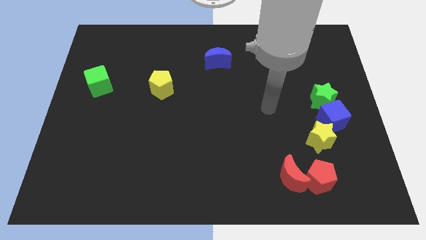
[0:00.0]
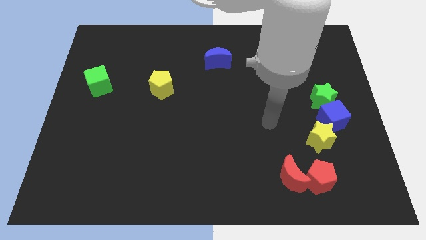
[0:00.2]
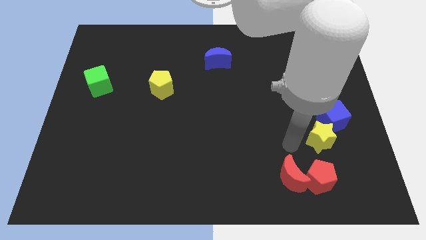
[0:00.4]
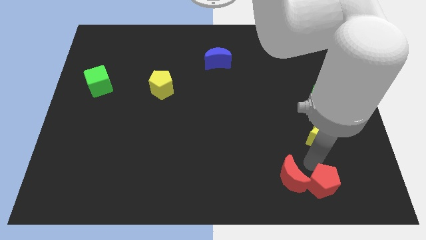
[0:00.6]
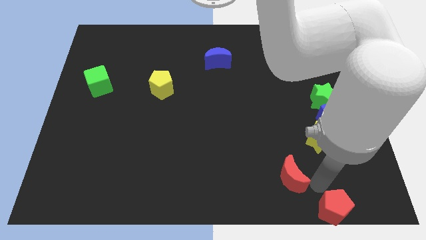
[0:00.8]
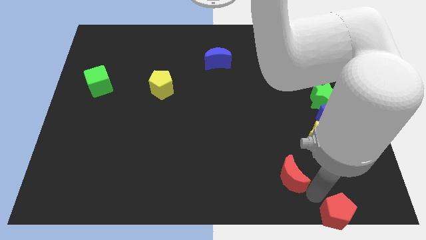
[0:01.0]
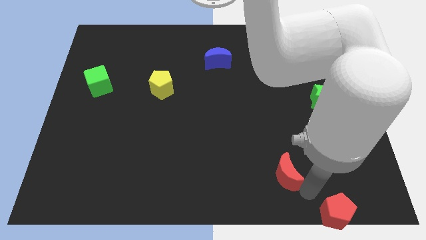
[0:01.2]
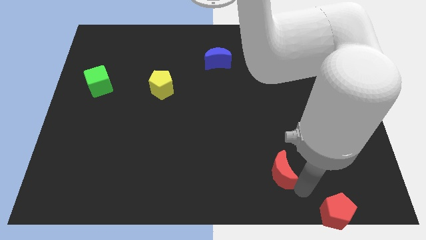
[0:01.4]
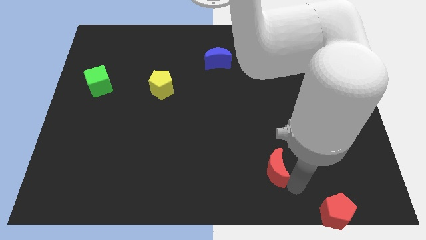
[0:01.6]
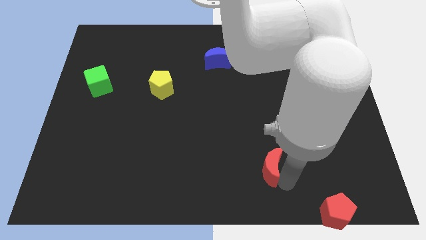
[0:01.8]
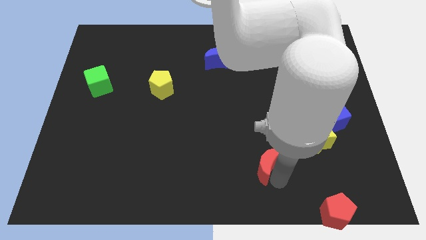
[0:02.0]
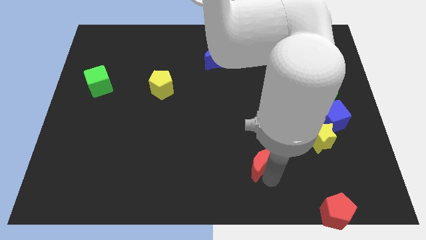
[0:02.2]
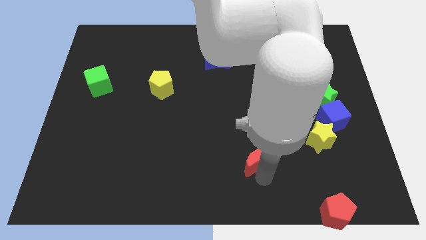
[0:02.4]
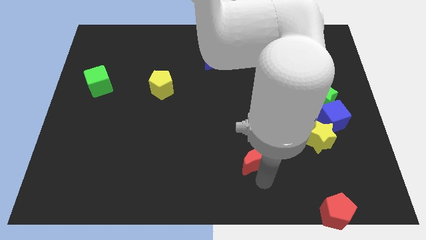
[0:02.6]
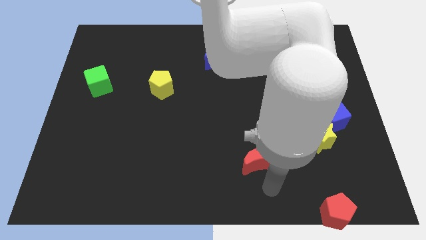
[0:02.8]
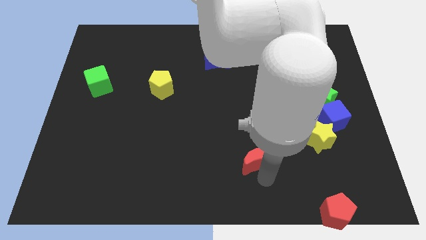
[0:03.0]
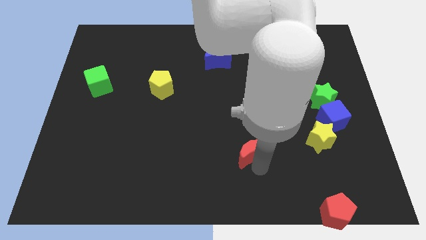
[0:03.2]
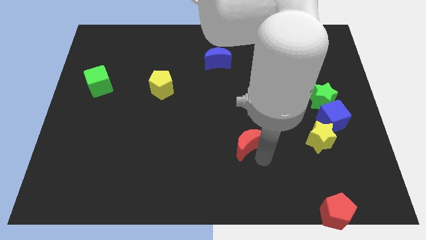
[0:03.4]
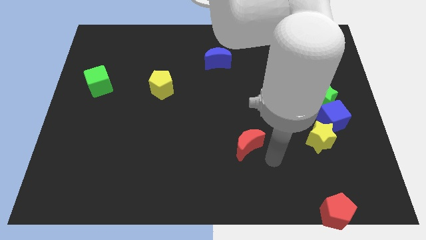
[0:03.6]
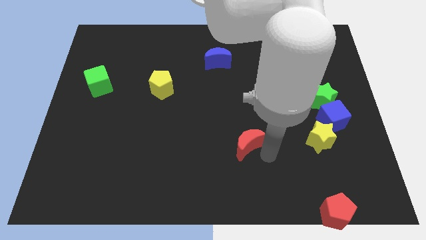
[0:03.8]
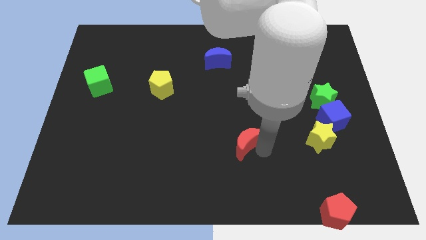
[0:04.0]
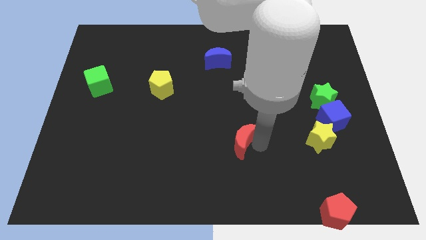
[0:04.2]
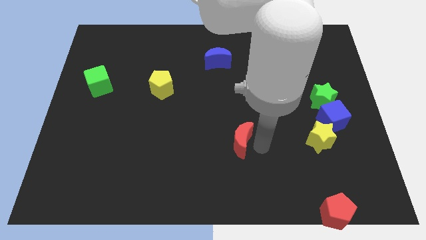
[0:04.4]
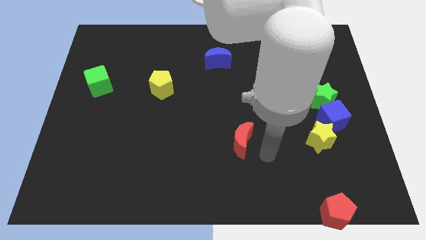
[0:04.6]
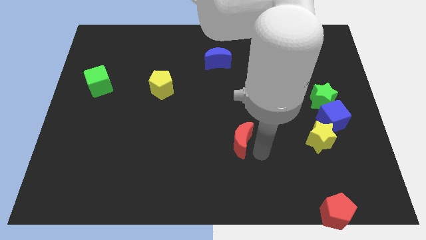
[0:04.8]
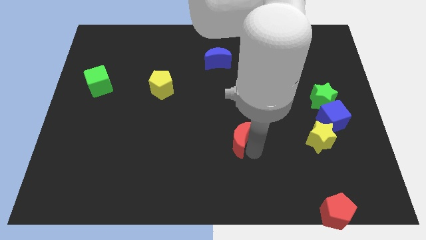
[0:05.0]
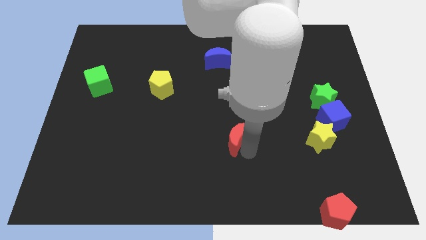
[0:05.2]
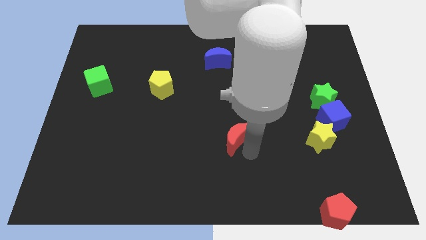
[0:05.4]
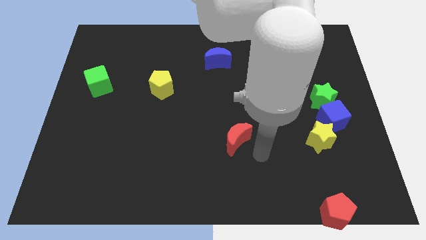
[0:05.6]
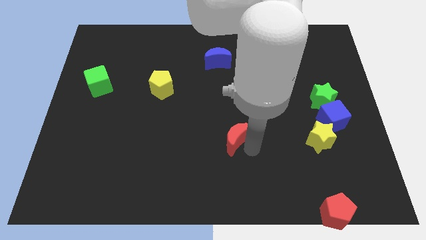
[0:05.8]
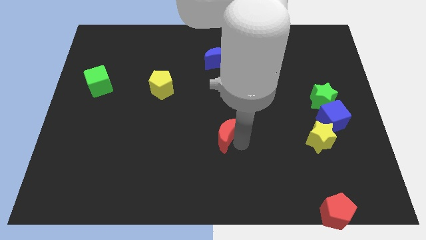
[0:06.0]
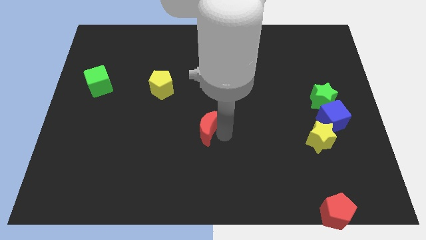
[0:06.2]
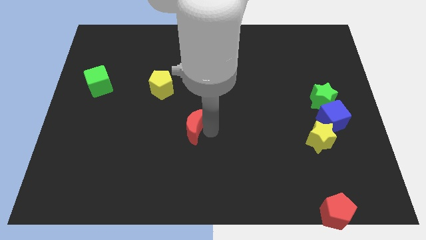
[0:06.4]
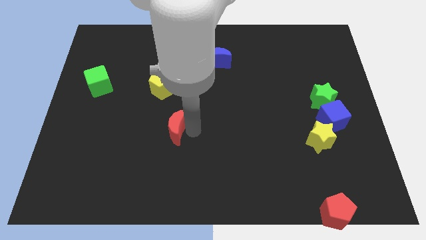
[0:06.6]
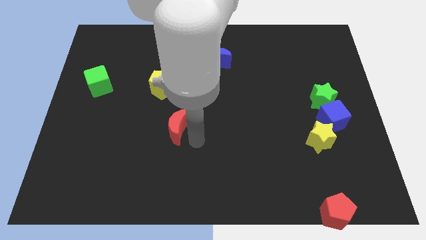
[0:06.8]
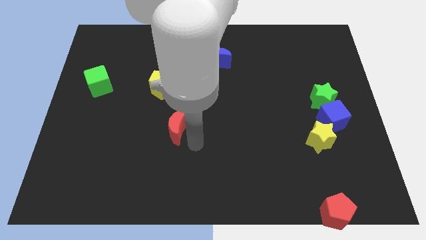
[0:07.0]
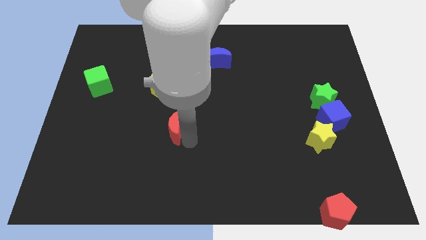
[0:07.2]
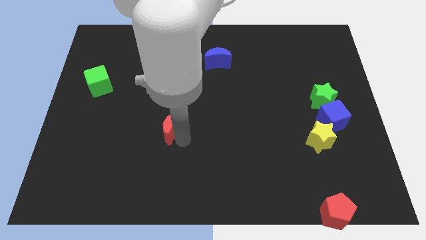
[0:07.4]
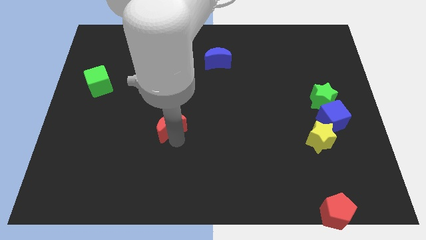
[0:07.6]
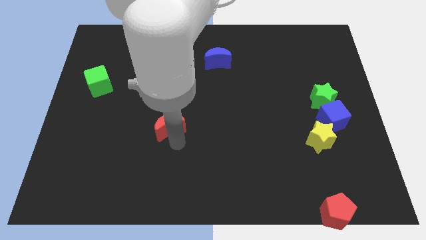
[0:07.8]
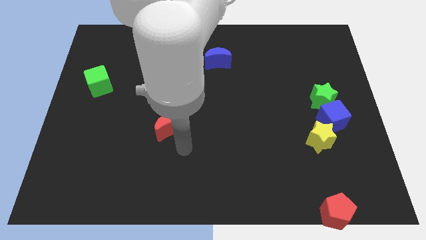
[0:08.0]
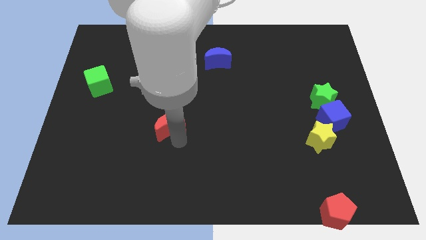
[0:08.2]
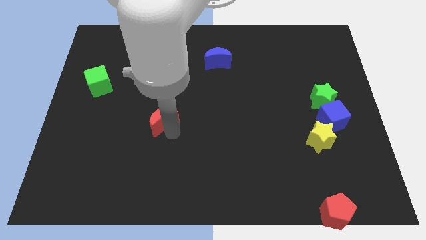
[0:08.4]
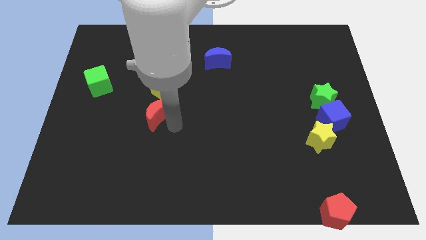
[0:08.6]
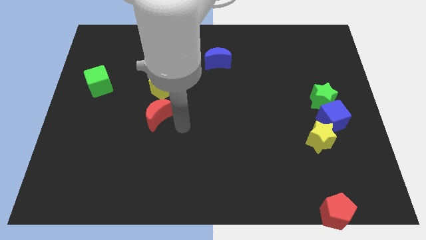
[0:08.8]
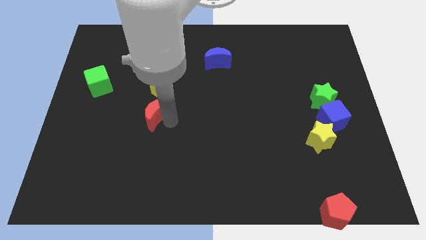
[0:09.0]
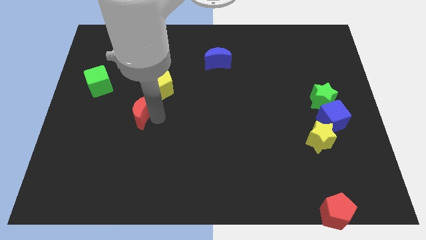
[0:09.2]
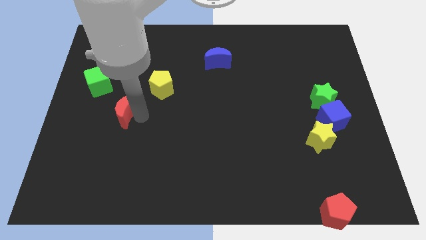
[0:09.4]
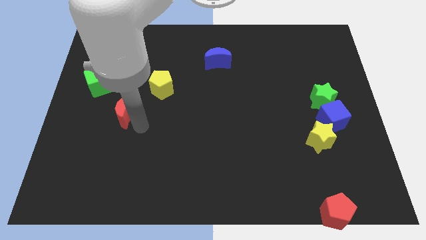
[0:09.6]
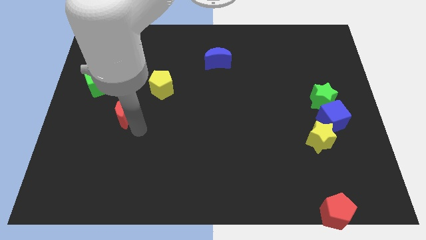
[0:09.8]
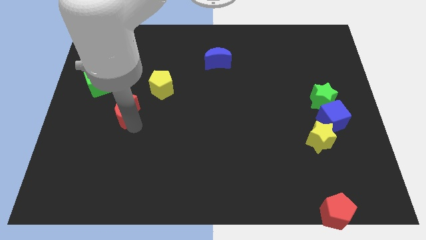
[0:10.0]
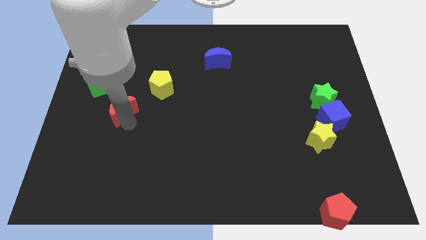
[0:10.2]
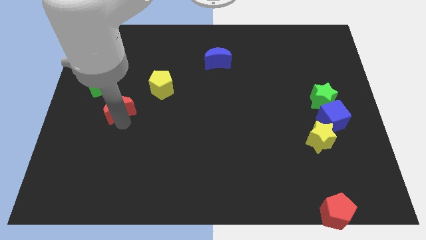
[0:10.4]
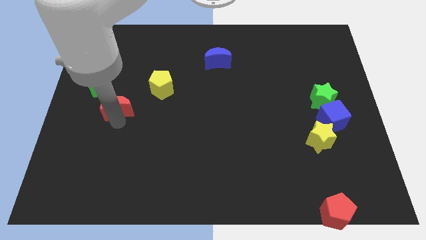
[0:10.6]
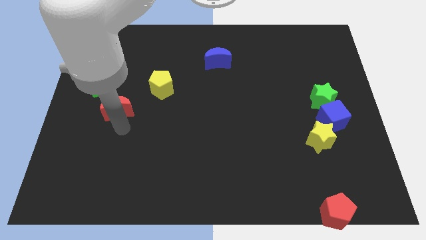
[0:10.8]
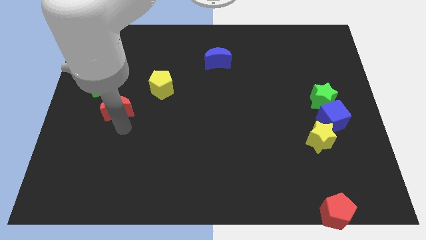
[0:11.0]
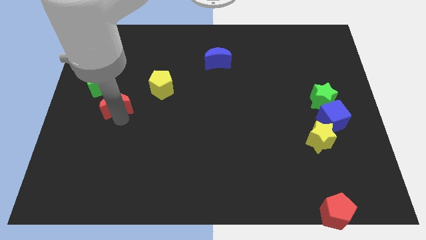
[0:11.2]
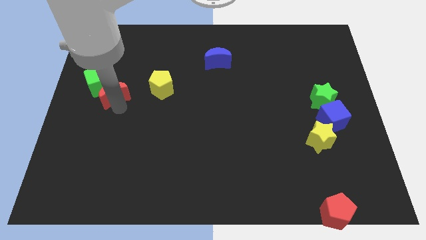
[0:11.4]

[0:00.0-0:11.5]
put the red moon next to the green cube

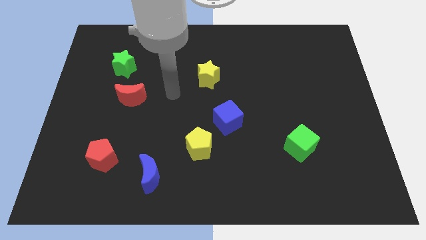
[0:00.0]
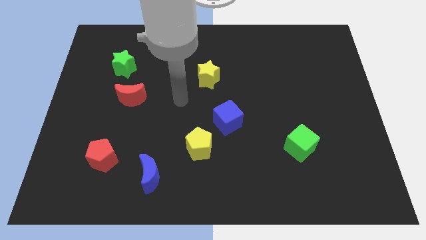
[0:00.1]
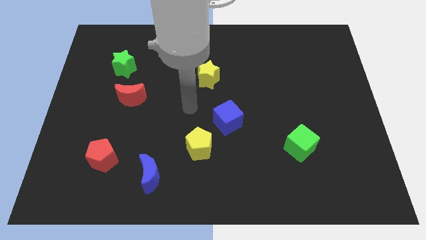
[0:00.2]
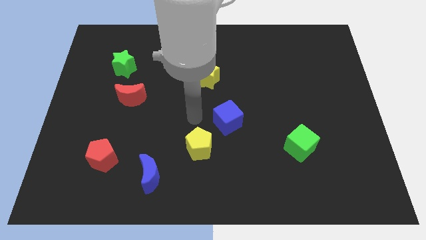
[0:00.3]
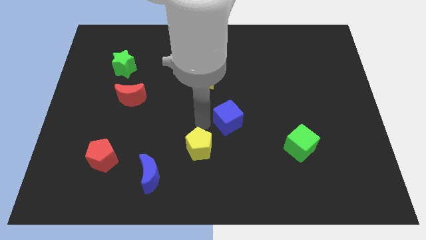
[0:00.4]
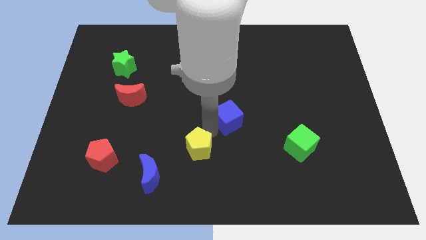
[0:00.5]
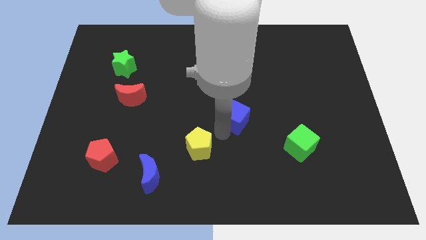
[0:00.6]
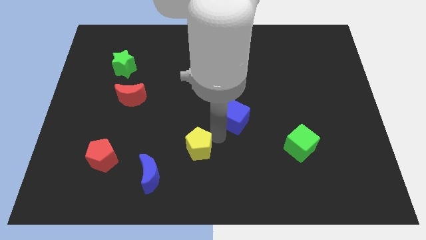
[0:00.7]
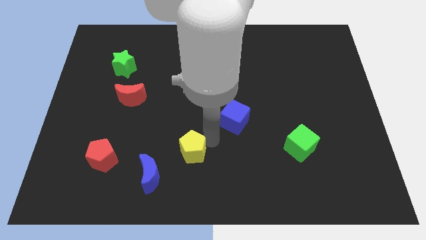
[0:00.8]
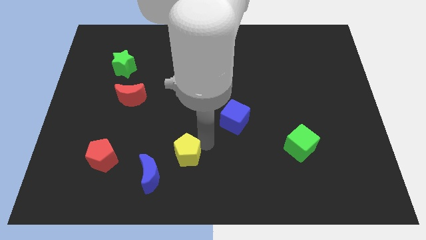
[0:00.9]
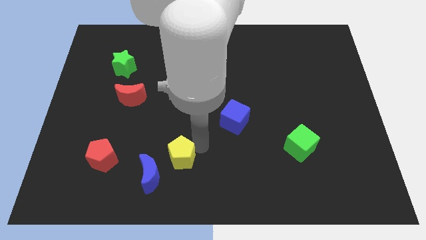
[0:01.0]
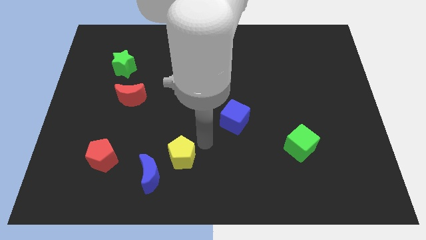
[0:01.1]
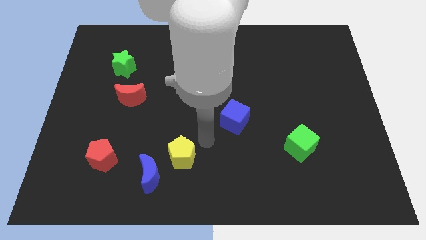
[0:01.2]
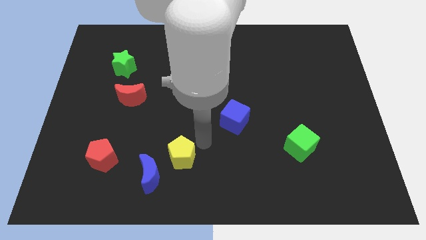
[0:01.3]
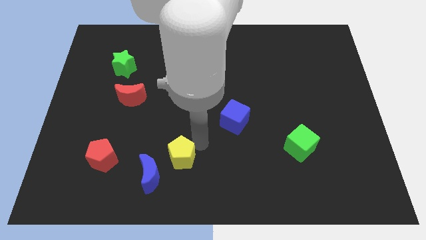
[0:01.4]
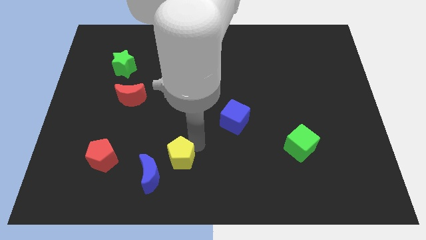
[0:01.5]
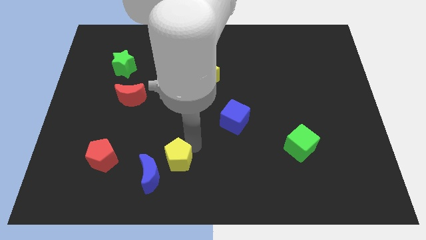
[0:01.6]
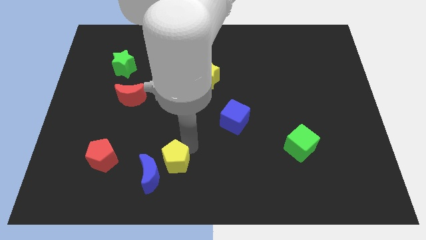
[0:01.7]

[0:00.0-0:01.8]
push the yellow pentagon close to the blue moon
